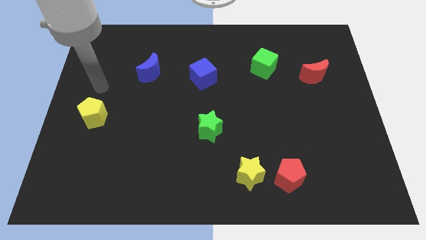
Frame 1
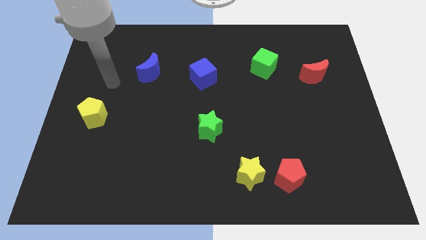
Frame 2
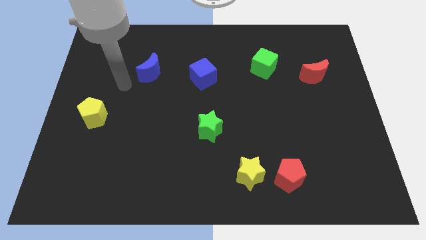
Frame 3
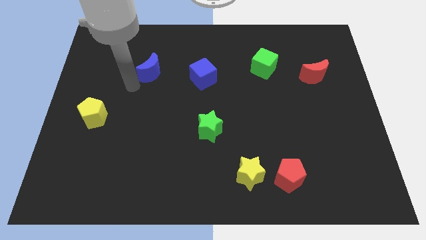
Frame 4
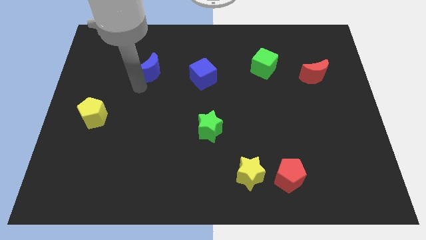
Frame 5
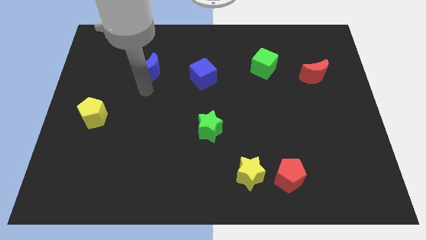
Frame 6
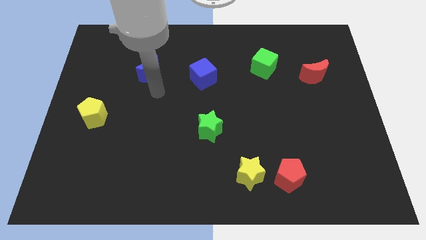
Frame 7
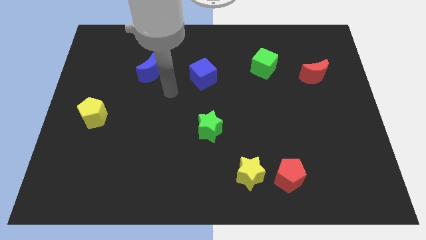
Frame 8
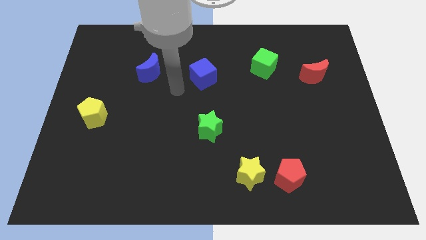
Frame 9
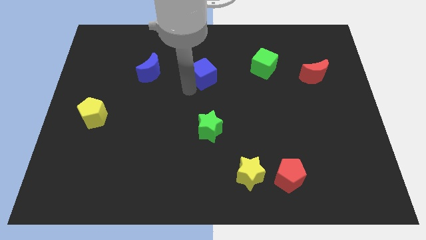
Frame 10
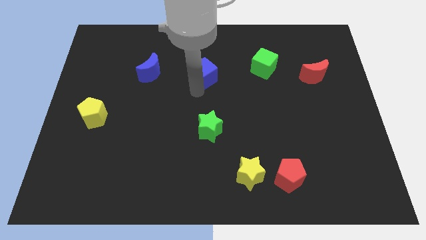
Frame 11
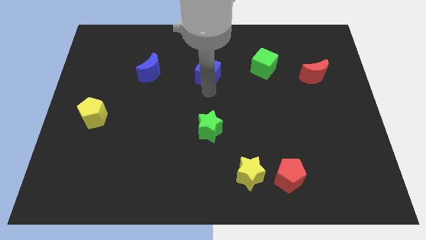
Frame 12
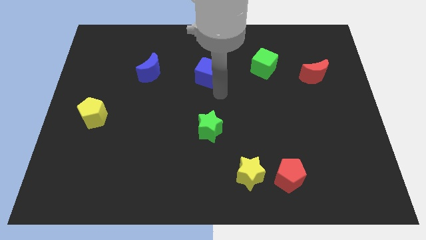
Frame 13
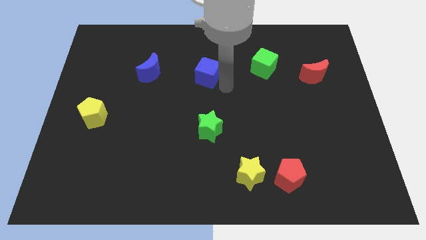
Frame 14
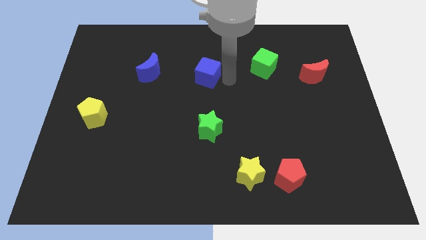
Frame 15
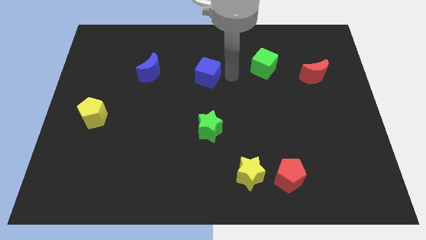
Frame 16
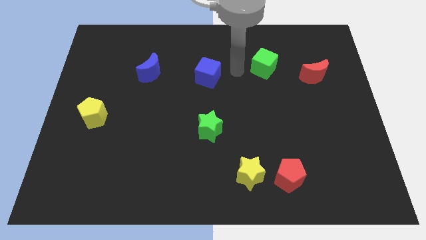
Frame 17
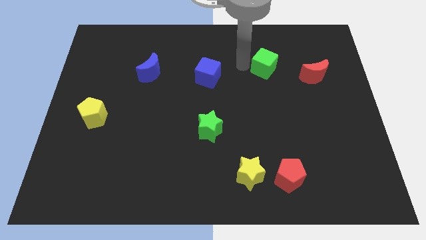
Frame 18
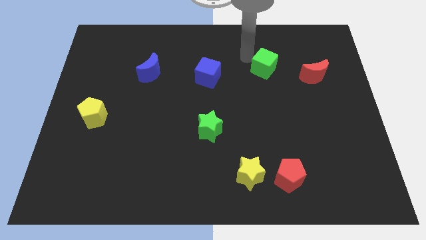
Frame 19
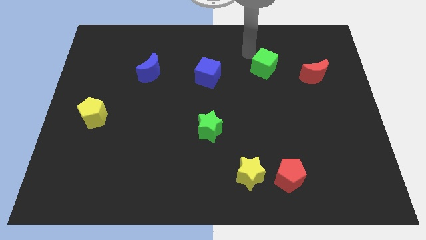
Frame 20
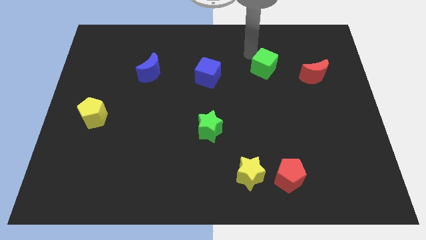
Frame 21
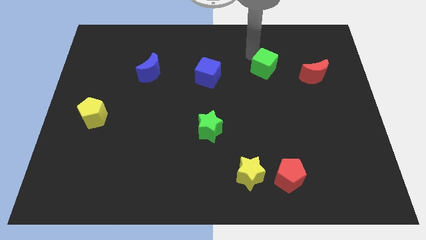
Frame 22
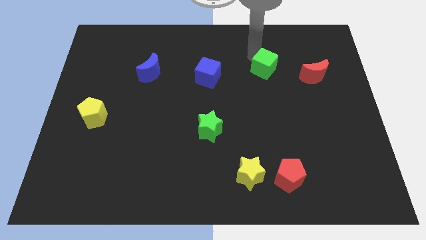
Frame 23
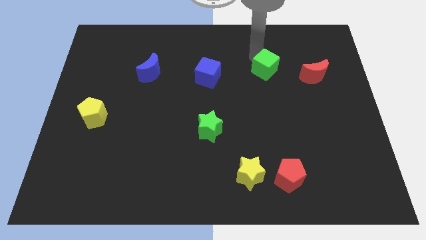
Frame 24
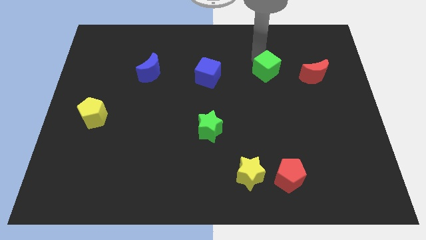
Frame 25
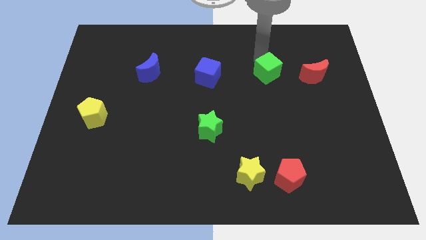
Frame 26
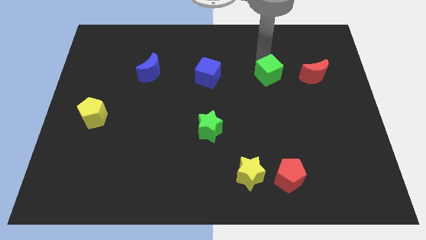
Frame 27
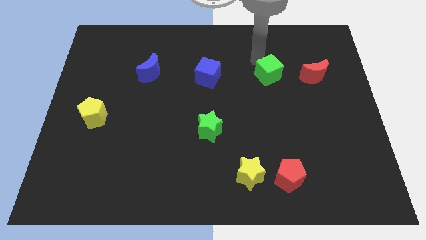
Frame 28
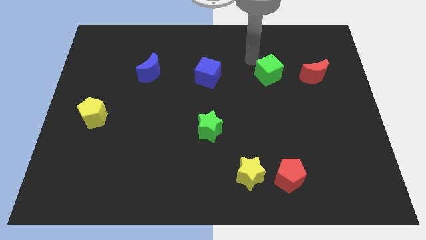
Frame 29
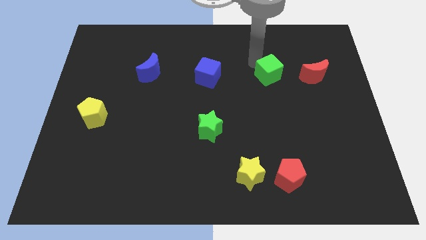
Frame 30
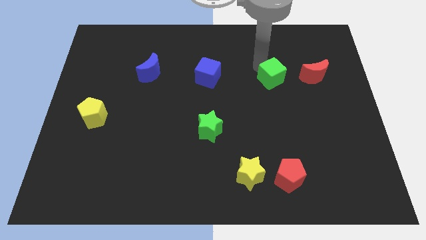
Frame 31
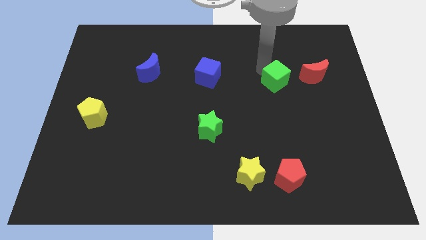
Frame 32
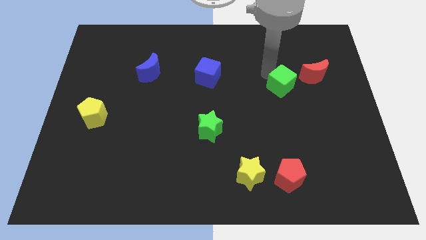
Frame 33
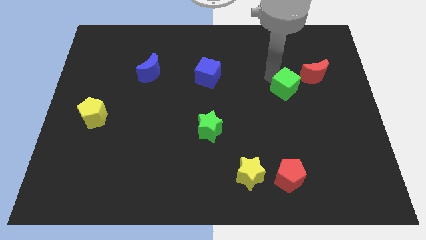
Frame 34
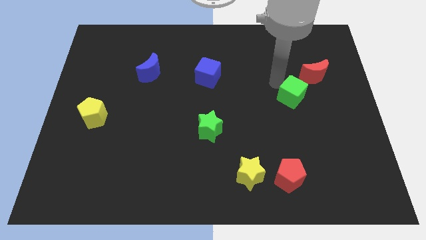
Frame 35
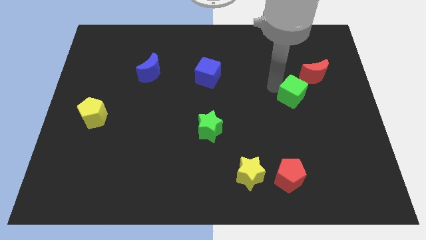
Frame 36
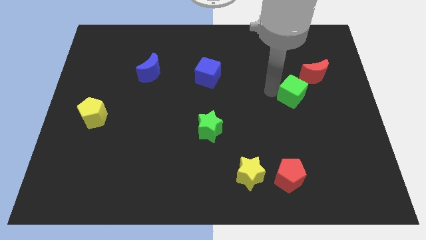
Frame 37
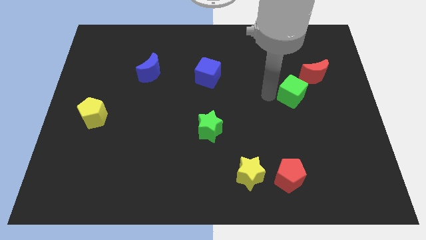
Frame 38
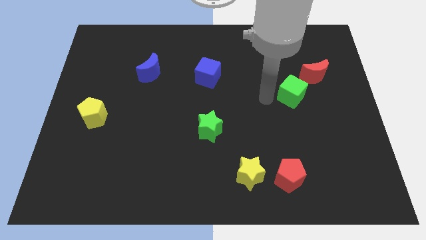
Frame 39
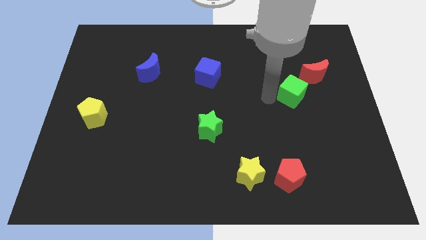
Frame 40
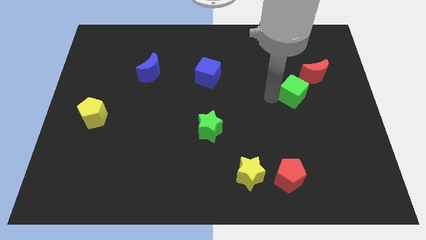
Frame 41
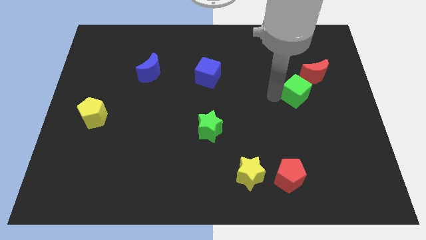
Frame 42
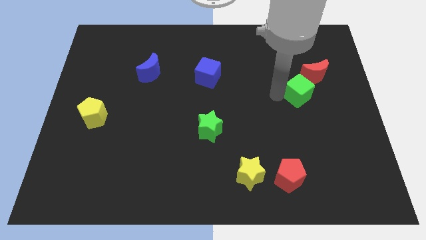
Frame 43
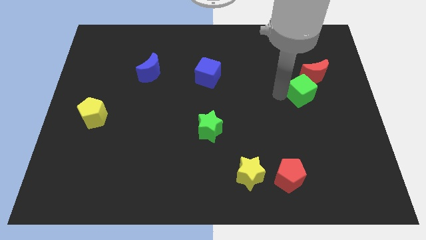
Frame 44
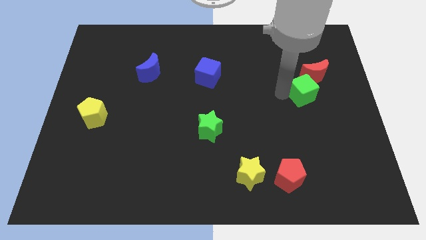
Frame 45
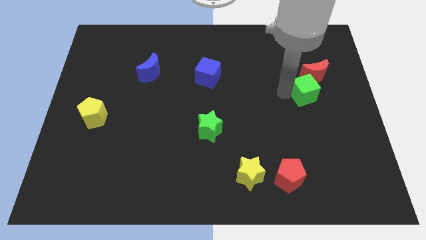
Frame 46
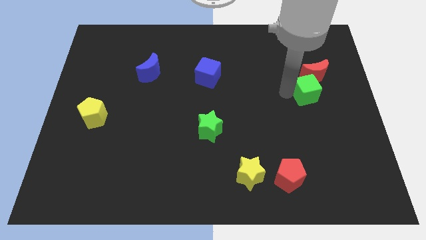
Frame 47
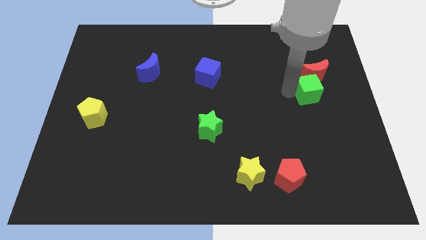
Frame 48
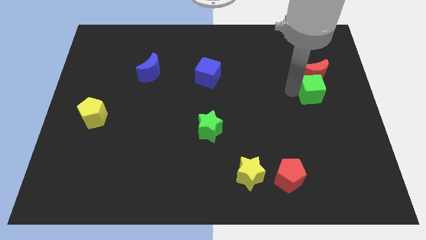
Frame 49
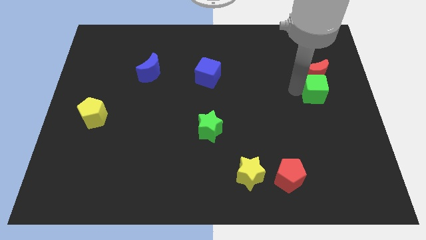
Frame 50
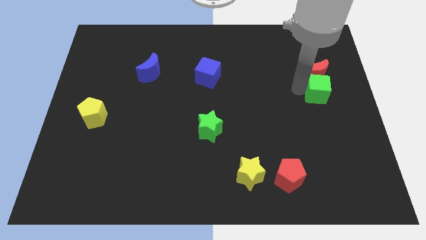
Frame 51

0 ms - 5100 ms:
push the green cube to the right side

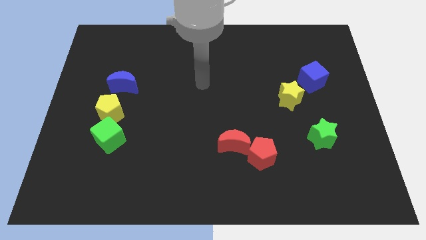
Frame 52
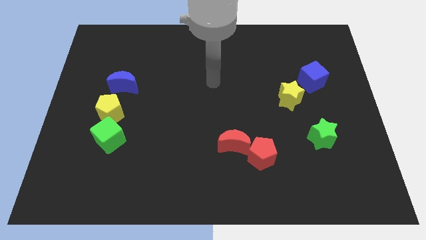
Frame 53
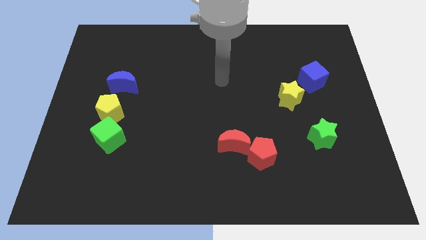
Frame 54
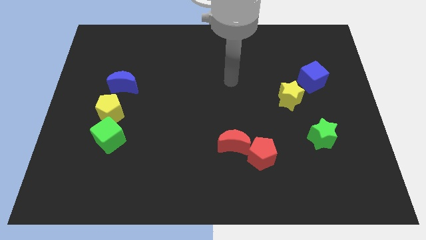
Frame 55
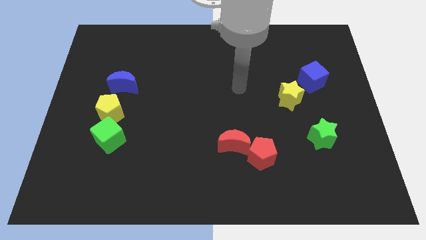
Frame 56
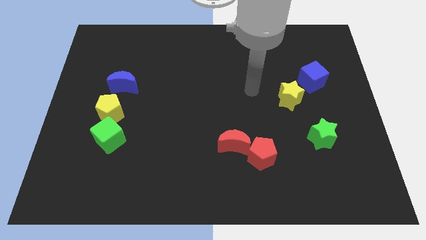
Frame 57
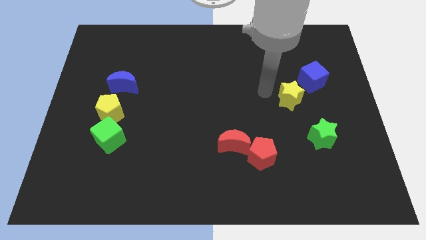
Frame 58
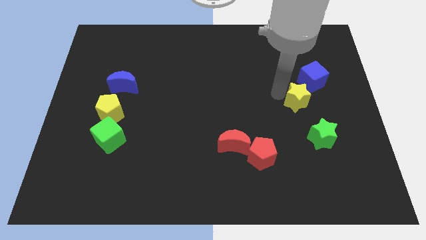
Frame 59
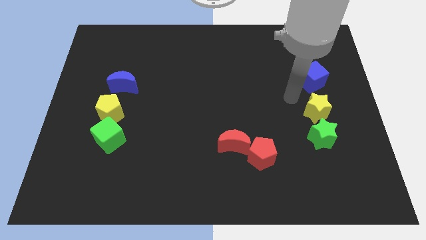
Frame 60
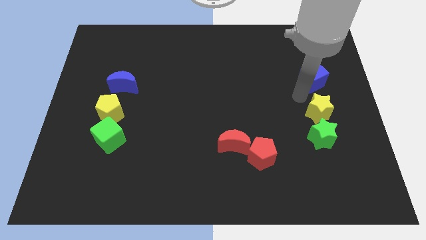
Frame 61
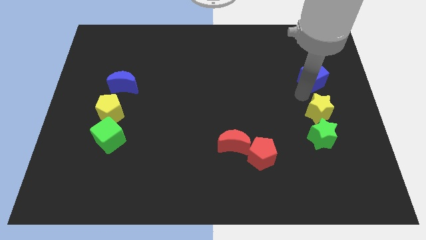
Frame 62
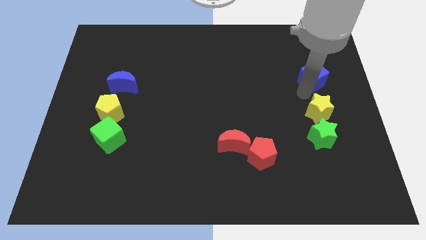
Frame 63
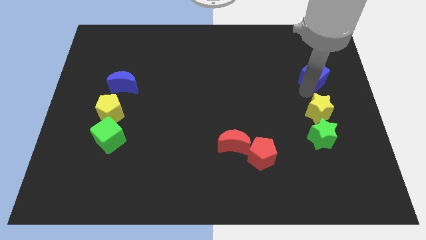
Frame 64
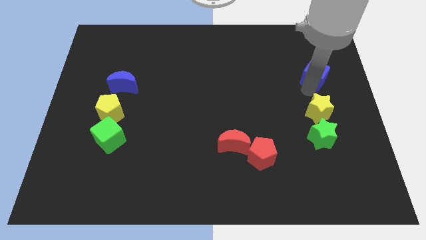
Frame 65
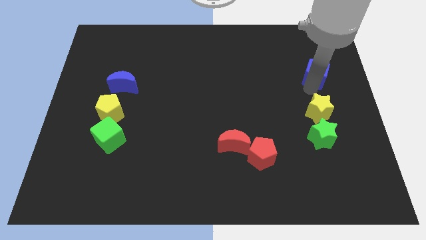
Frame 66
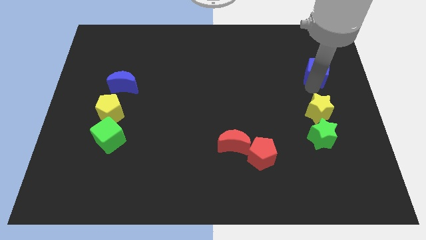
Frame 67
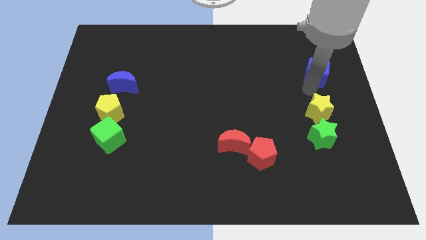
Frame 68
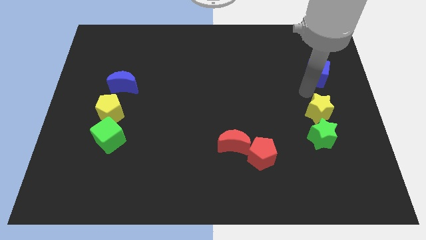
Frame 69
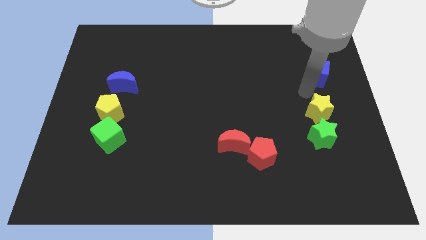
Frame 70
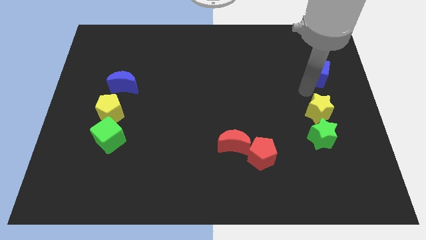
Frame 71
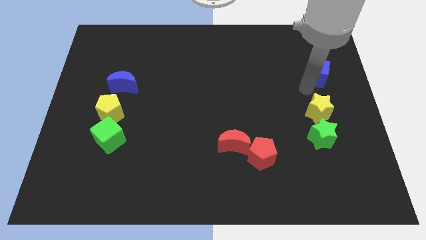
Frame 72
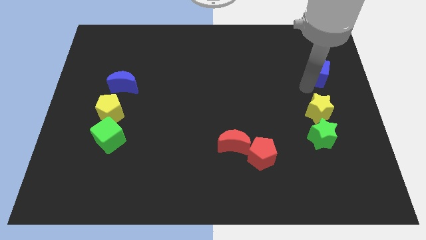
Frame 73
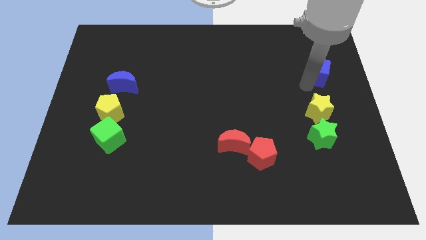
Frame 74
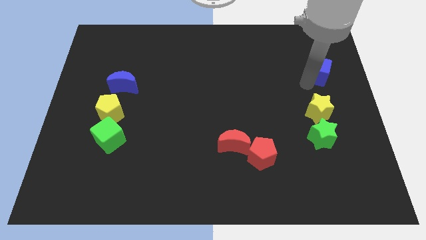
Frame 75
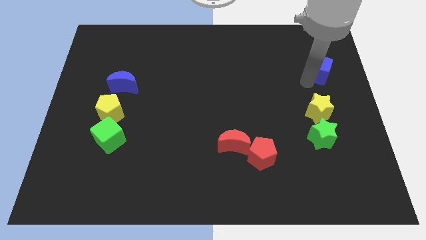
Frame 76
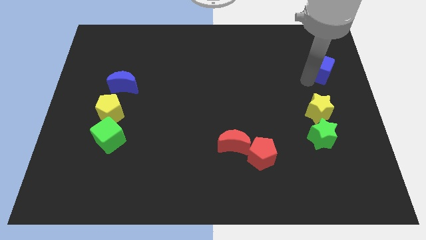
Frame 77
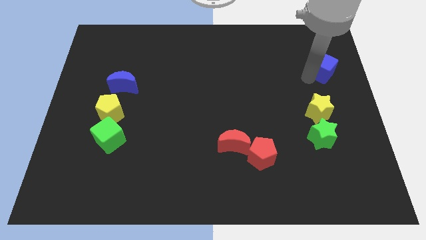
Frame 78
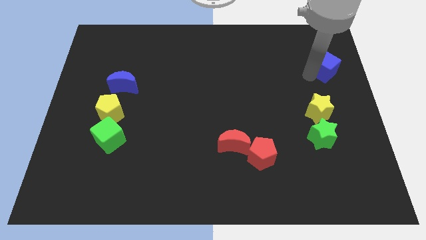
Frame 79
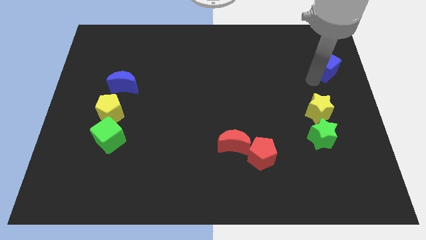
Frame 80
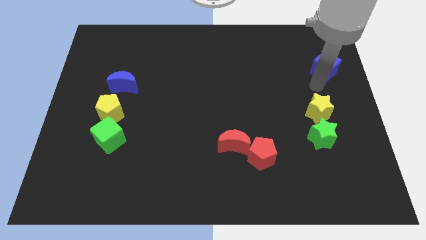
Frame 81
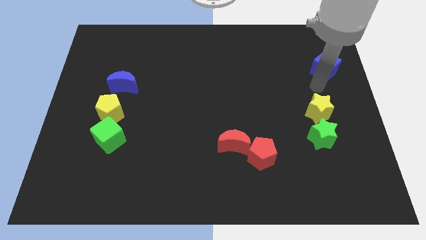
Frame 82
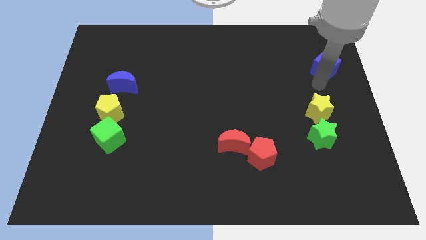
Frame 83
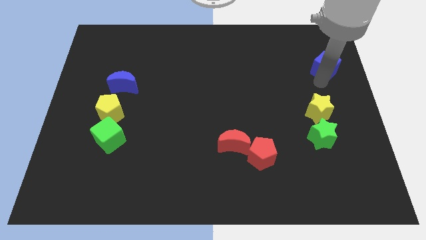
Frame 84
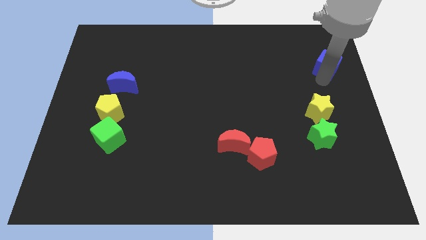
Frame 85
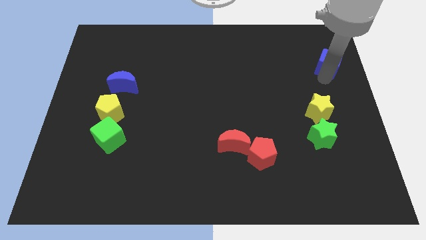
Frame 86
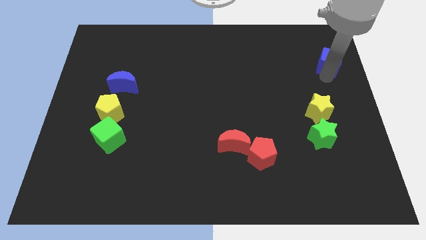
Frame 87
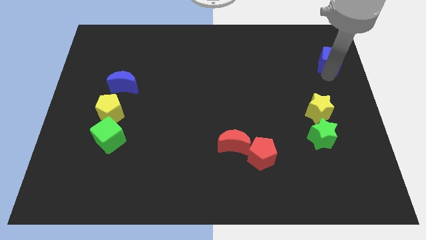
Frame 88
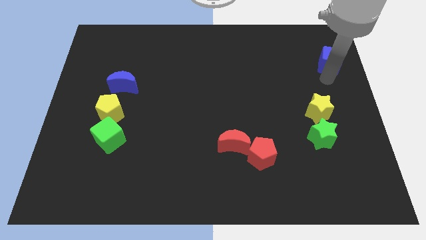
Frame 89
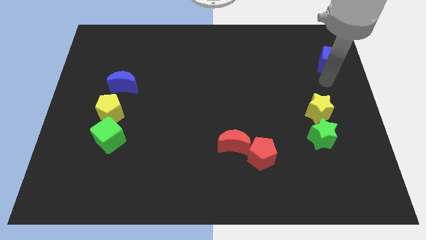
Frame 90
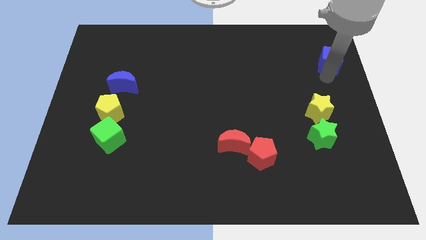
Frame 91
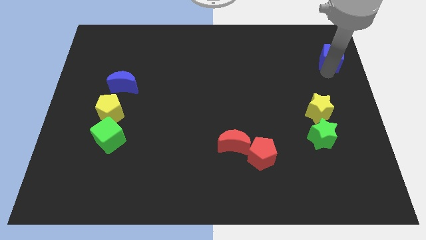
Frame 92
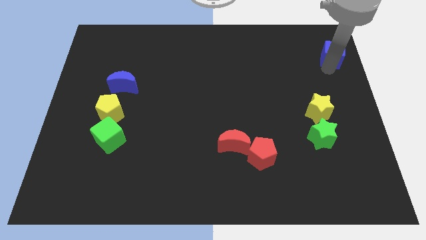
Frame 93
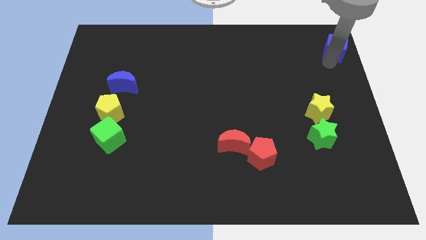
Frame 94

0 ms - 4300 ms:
put the blue cube to the top right corner
